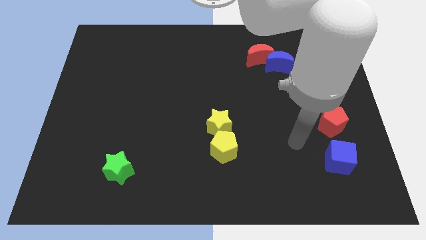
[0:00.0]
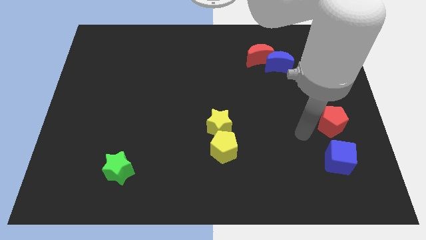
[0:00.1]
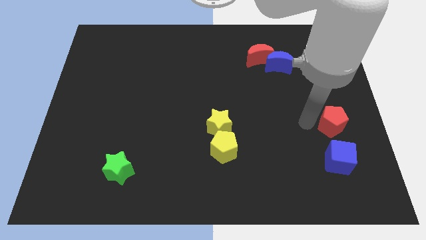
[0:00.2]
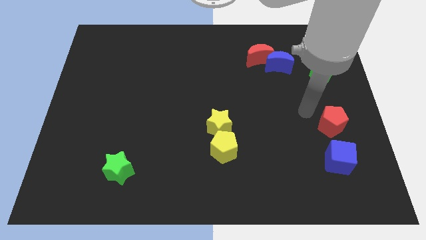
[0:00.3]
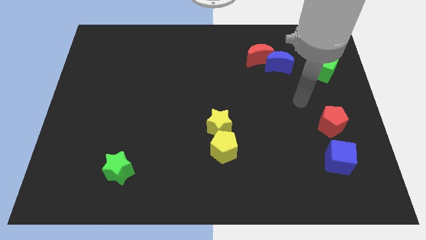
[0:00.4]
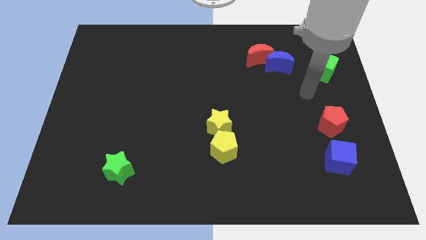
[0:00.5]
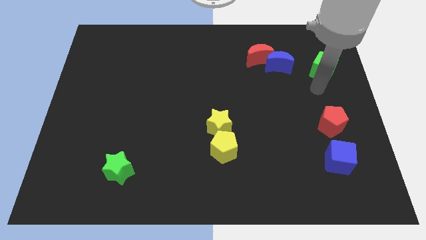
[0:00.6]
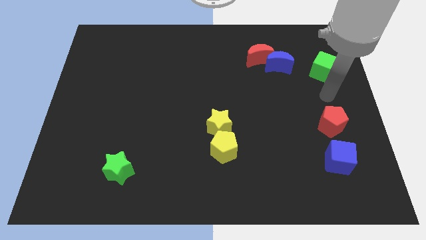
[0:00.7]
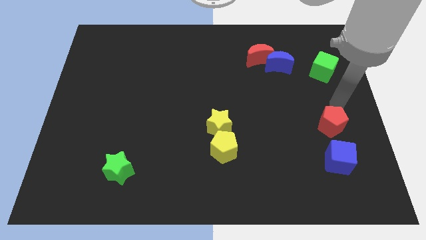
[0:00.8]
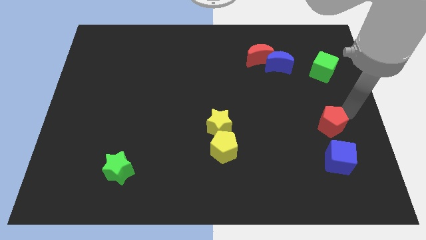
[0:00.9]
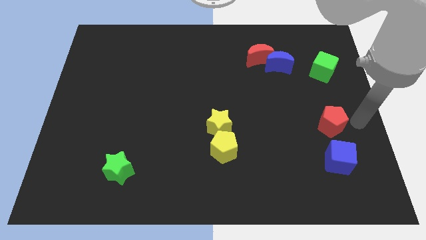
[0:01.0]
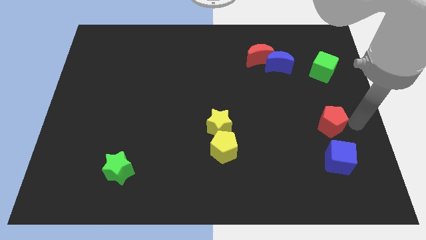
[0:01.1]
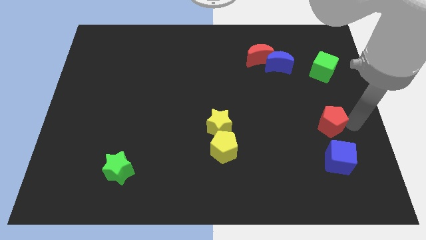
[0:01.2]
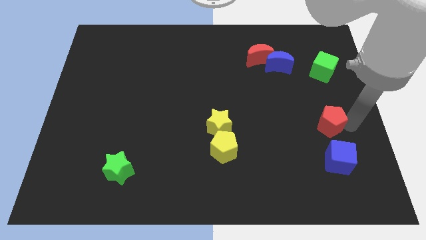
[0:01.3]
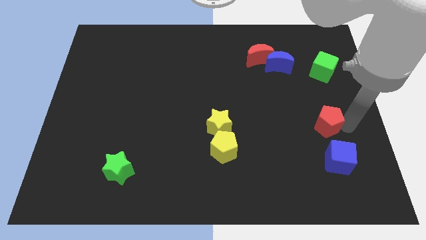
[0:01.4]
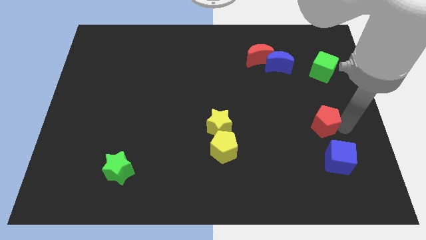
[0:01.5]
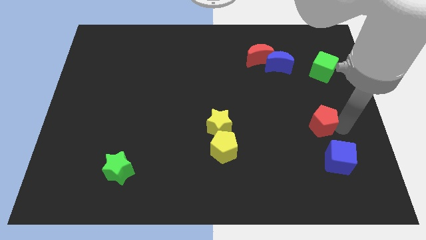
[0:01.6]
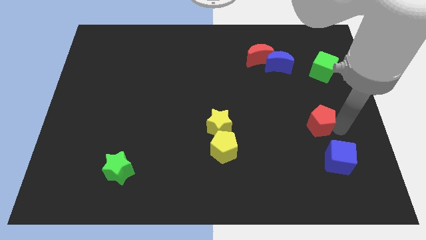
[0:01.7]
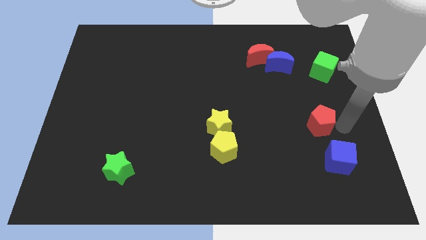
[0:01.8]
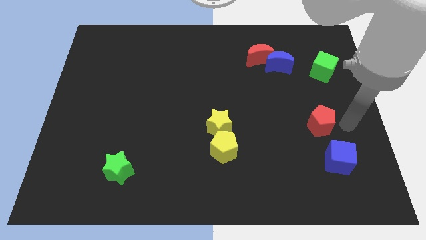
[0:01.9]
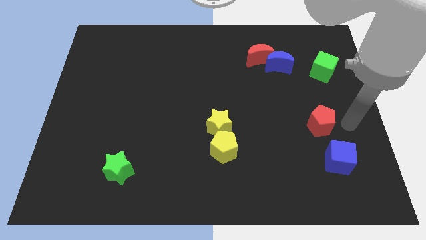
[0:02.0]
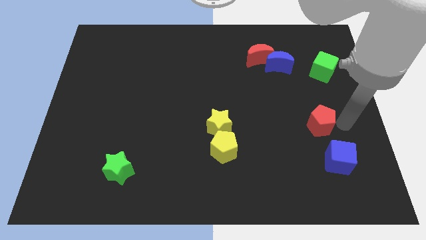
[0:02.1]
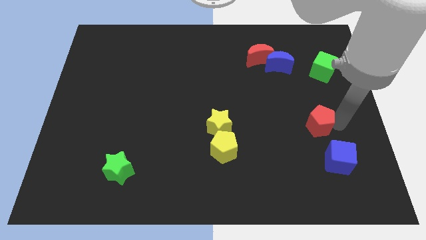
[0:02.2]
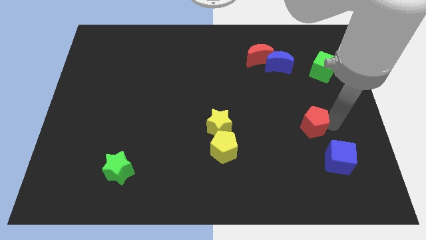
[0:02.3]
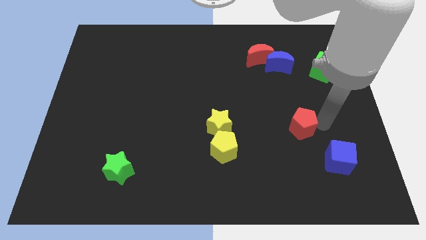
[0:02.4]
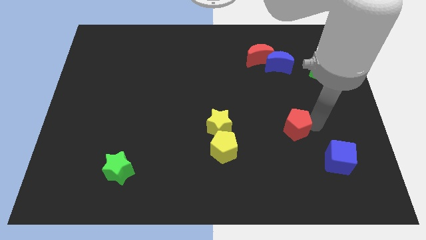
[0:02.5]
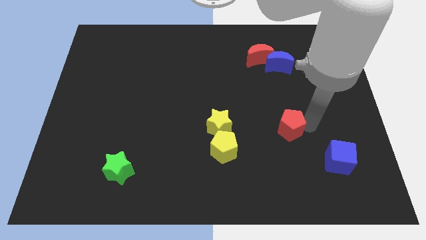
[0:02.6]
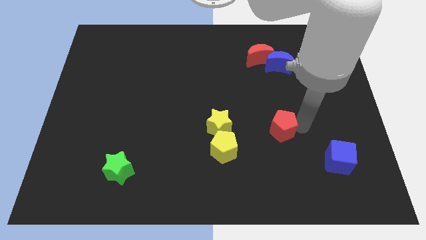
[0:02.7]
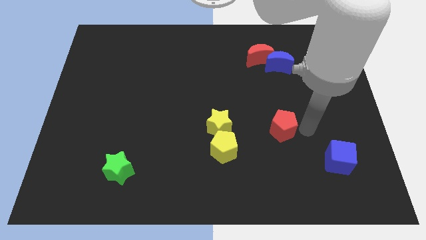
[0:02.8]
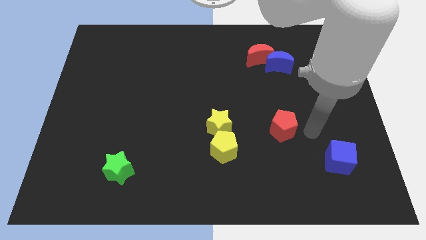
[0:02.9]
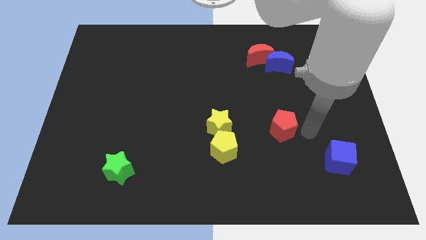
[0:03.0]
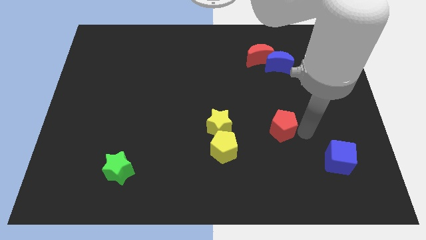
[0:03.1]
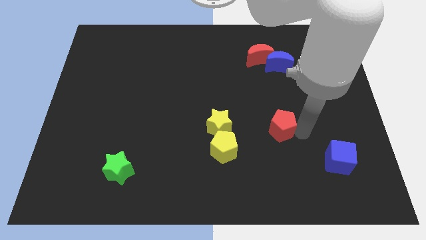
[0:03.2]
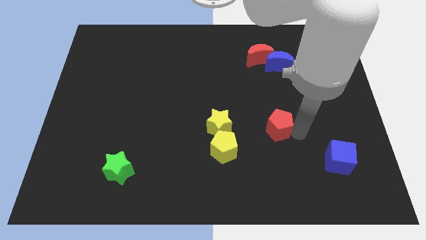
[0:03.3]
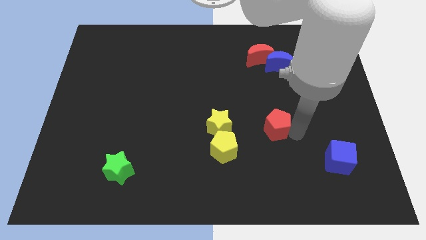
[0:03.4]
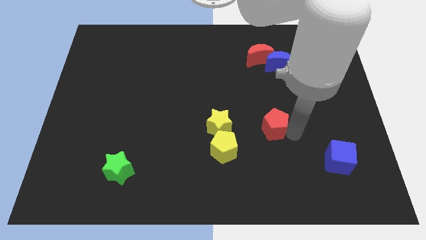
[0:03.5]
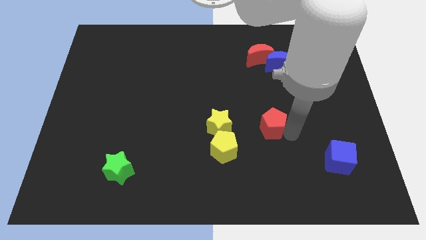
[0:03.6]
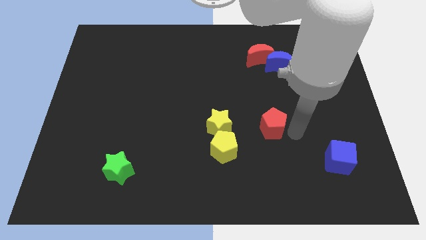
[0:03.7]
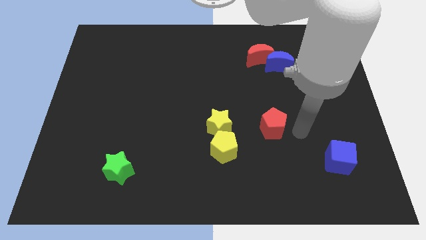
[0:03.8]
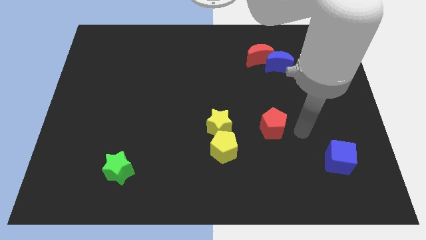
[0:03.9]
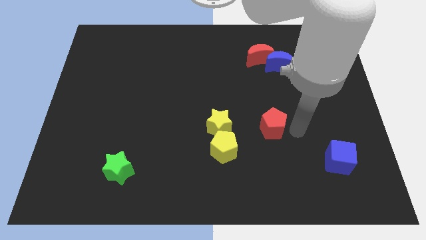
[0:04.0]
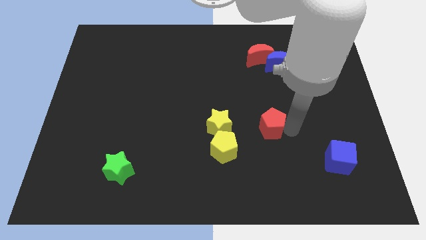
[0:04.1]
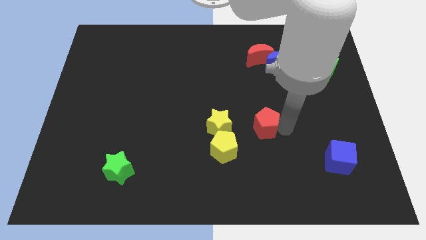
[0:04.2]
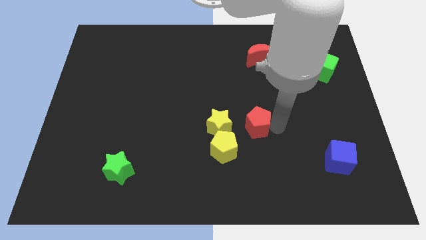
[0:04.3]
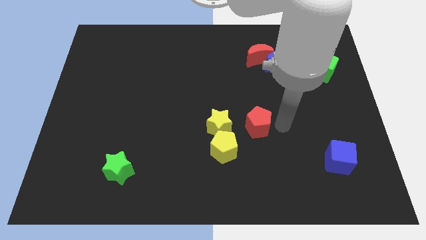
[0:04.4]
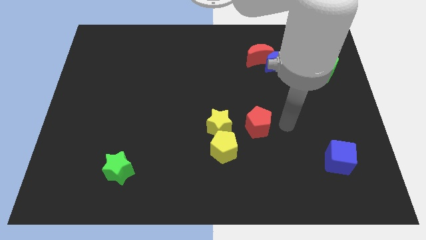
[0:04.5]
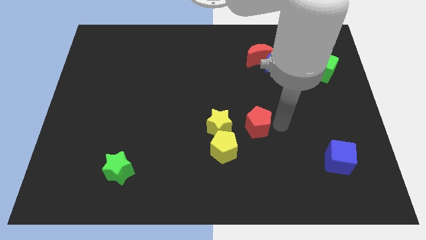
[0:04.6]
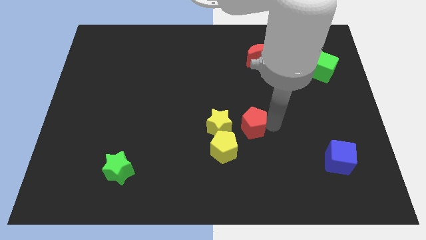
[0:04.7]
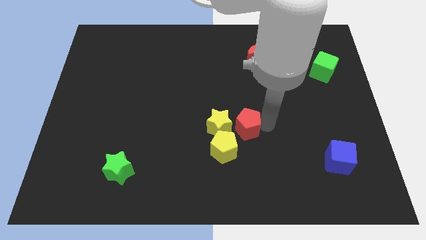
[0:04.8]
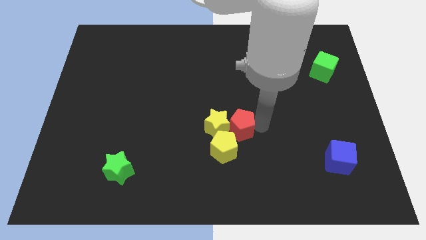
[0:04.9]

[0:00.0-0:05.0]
push the red pentagon close to the yellow star

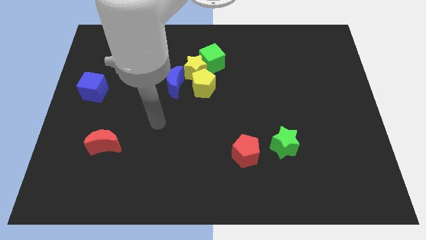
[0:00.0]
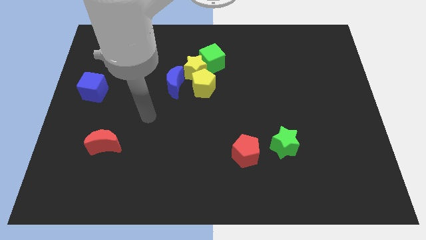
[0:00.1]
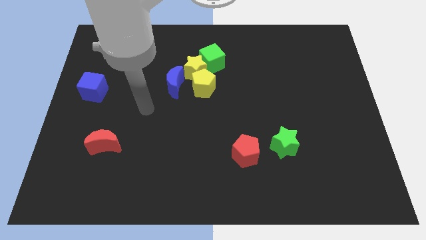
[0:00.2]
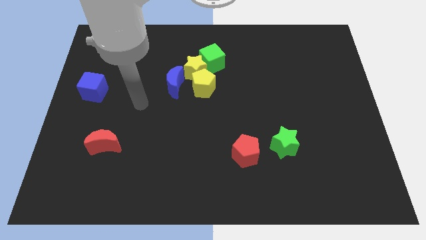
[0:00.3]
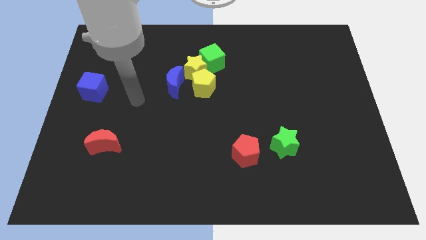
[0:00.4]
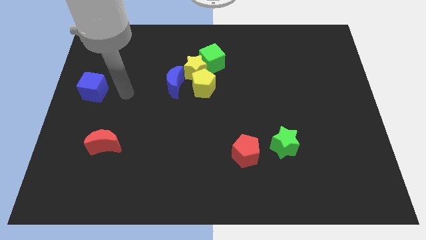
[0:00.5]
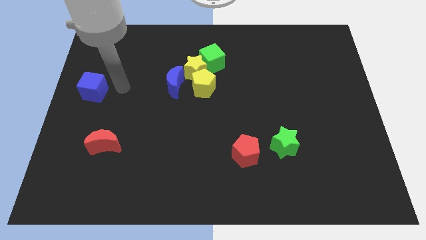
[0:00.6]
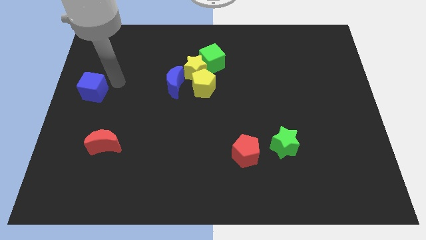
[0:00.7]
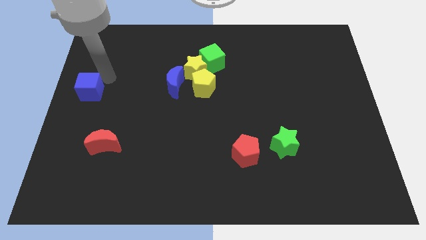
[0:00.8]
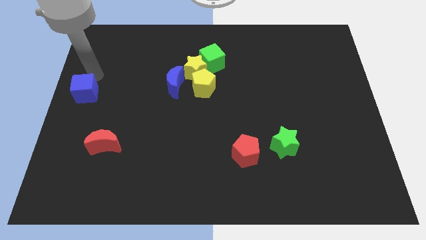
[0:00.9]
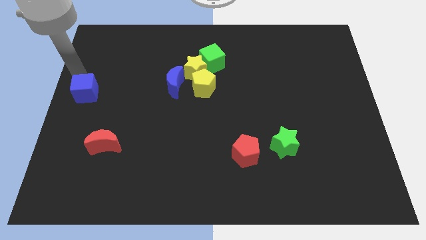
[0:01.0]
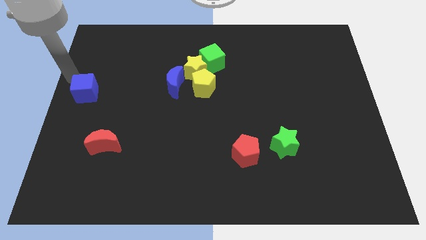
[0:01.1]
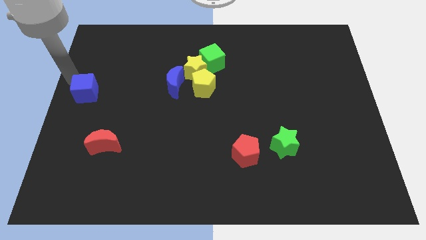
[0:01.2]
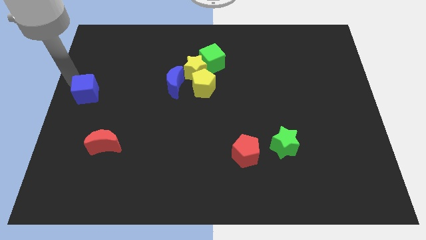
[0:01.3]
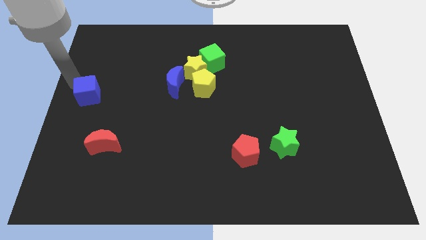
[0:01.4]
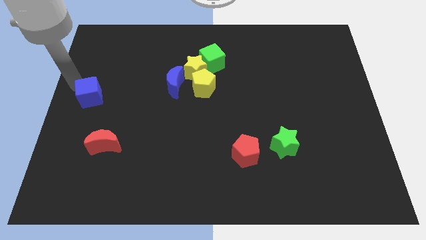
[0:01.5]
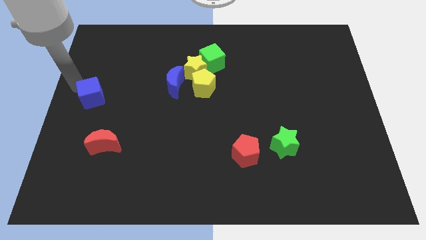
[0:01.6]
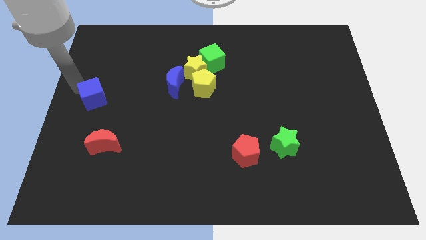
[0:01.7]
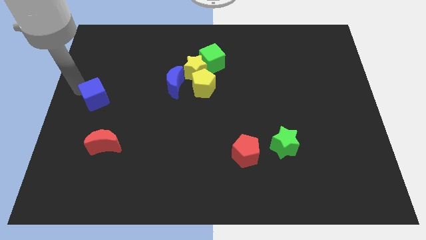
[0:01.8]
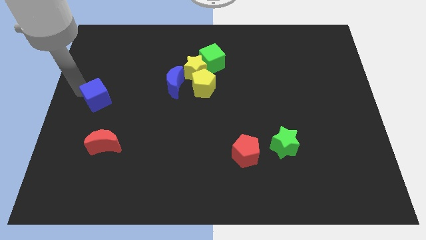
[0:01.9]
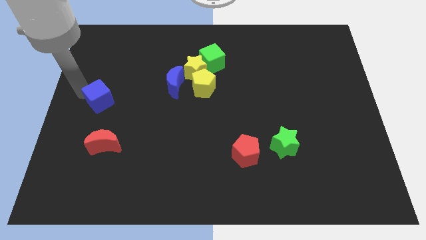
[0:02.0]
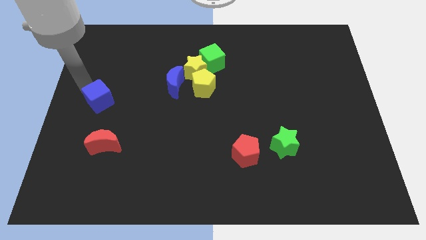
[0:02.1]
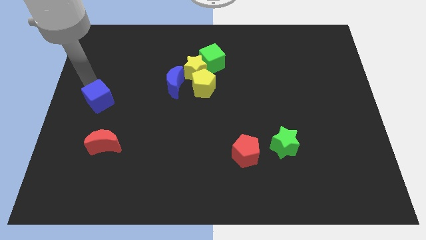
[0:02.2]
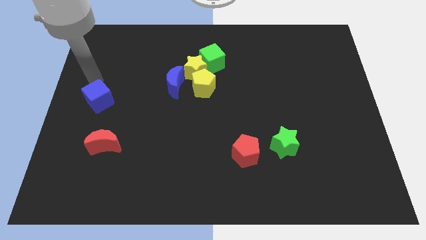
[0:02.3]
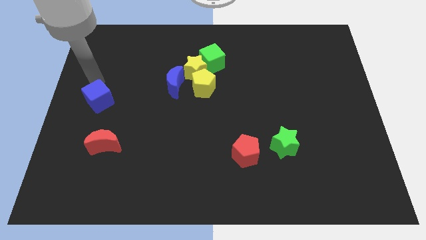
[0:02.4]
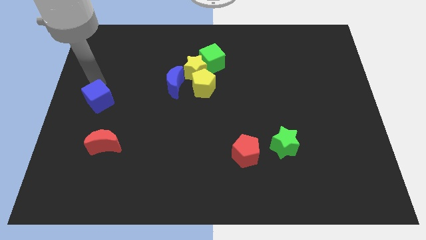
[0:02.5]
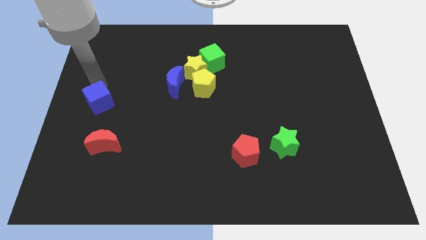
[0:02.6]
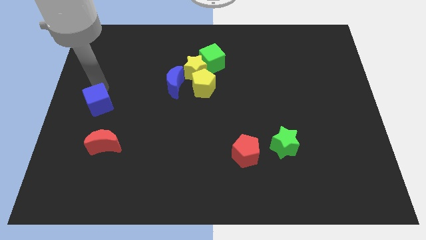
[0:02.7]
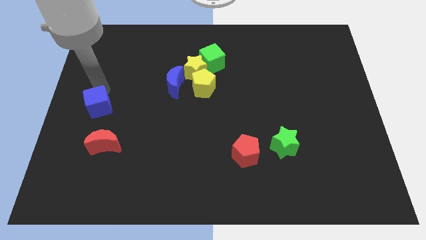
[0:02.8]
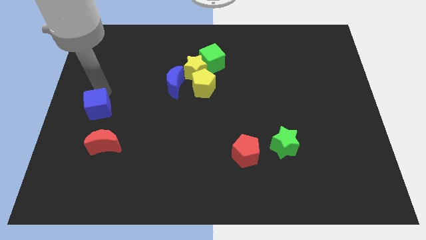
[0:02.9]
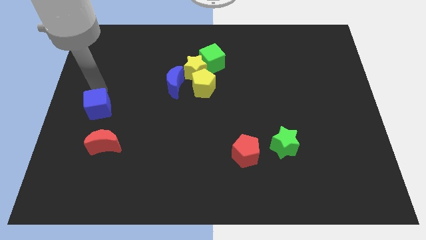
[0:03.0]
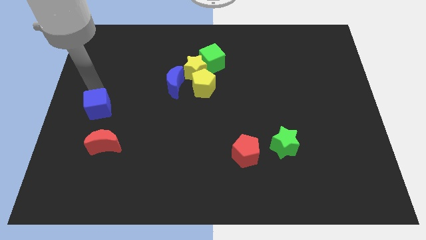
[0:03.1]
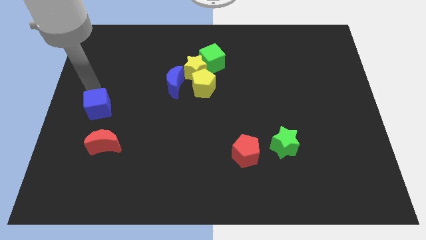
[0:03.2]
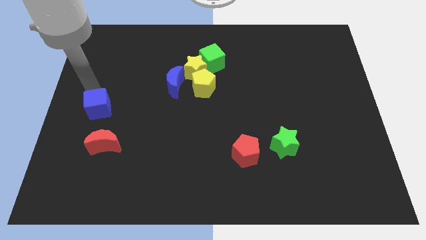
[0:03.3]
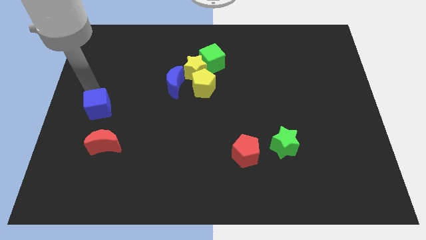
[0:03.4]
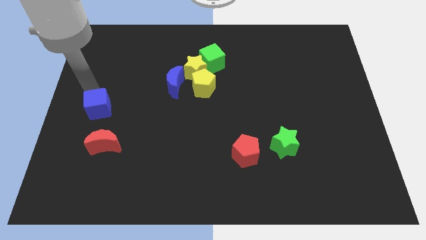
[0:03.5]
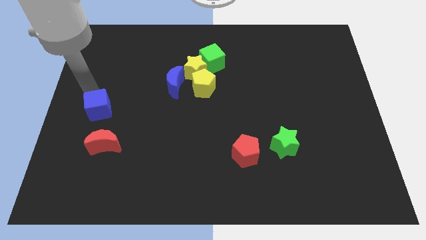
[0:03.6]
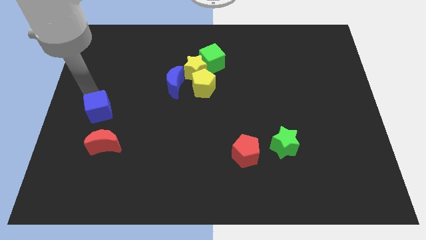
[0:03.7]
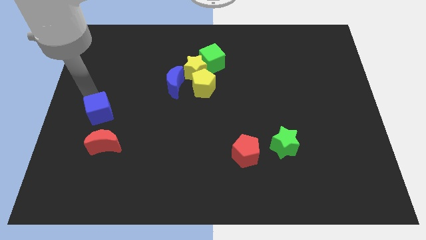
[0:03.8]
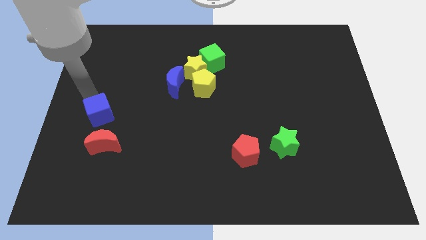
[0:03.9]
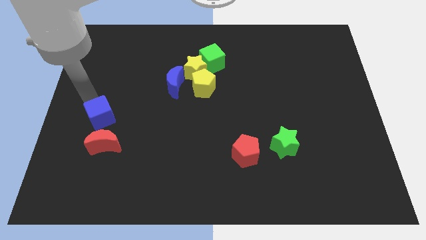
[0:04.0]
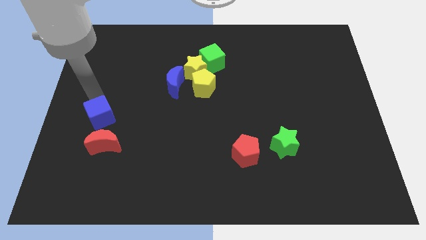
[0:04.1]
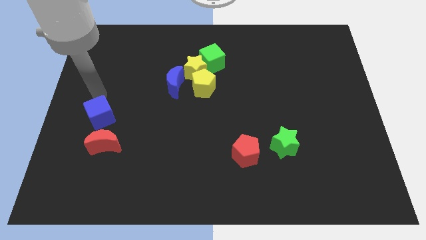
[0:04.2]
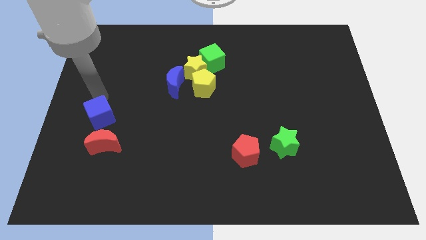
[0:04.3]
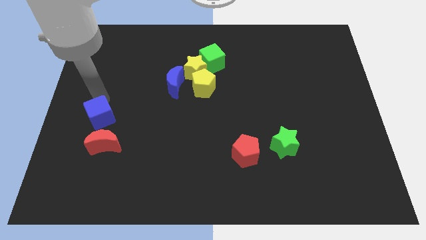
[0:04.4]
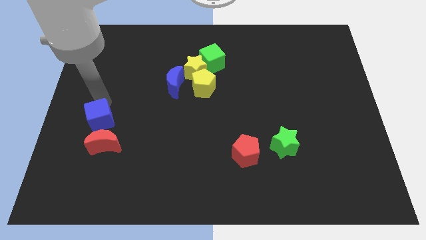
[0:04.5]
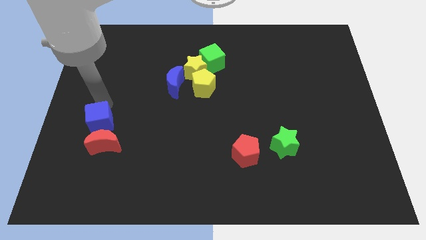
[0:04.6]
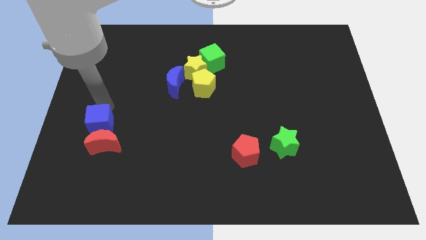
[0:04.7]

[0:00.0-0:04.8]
slide the blue cube to the red moon
